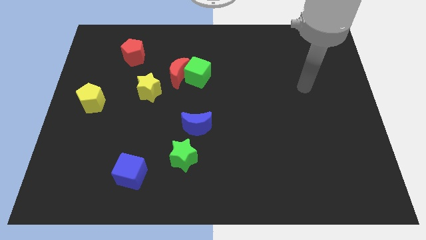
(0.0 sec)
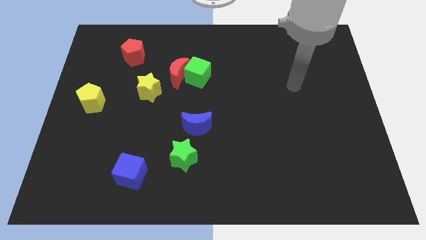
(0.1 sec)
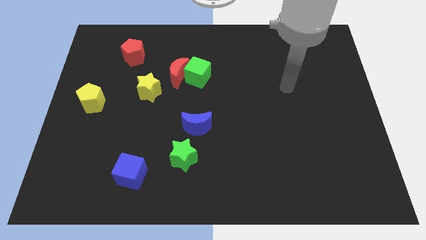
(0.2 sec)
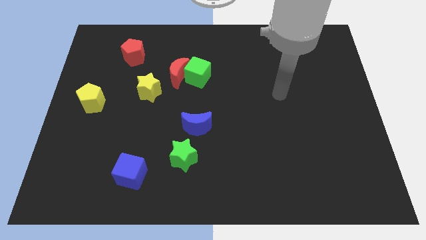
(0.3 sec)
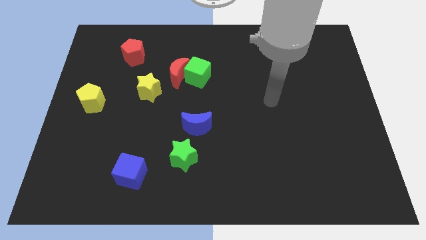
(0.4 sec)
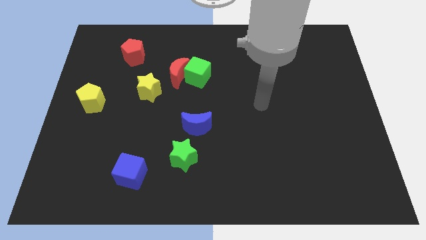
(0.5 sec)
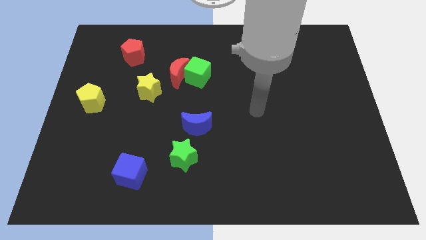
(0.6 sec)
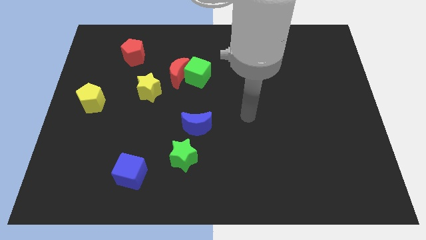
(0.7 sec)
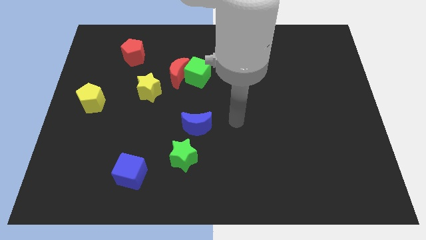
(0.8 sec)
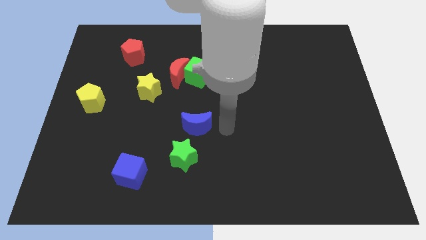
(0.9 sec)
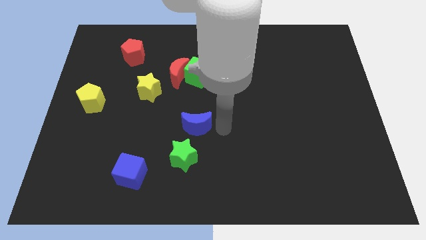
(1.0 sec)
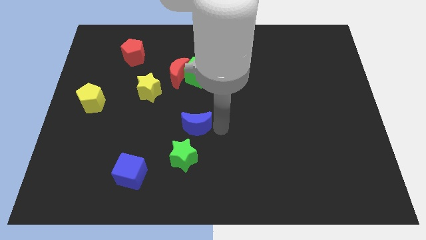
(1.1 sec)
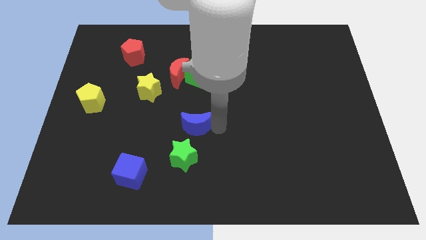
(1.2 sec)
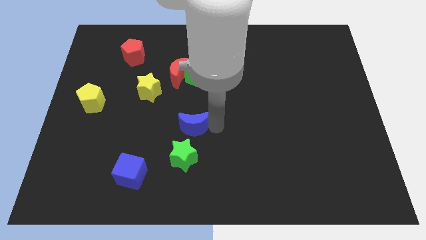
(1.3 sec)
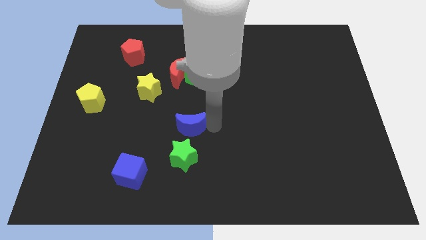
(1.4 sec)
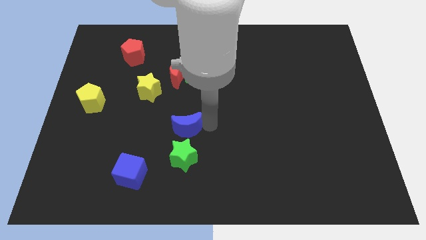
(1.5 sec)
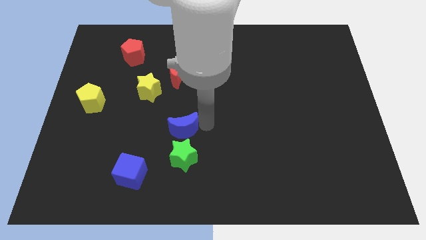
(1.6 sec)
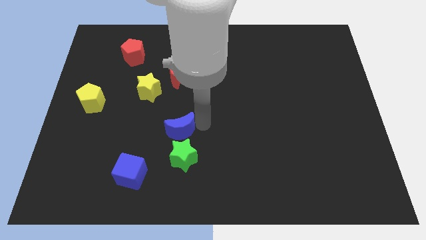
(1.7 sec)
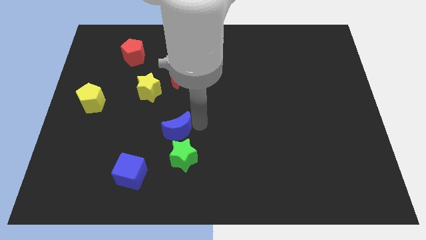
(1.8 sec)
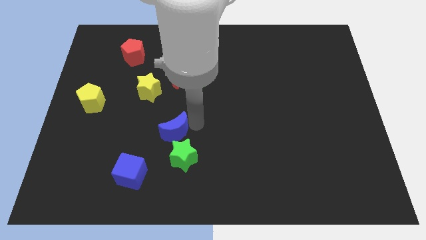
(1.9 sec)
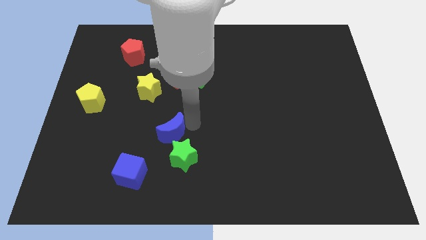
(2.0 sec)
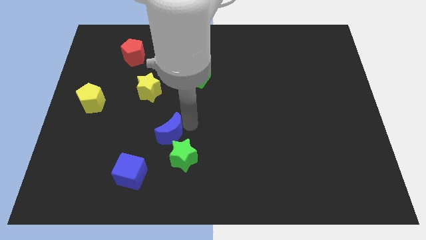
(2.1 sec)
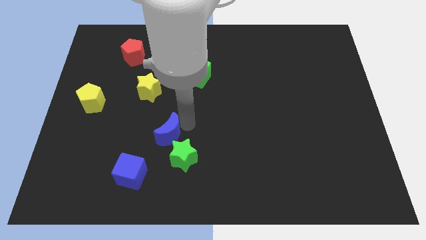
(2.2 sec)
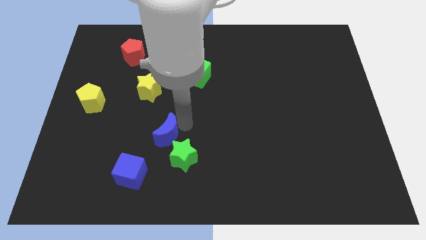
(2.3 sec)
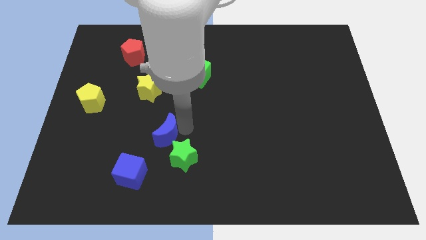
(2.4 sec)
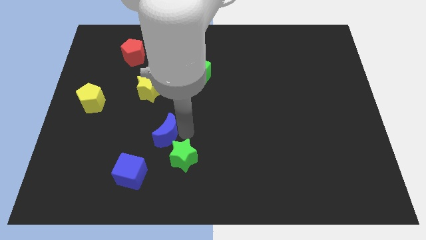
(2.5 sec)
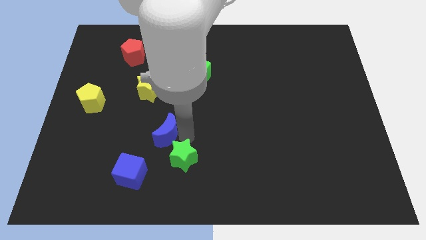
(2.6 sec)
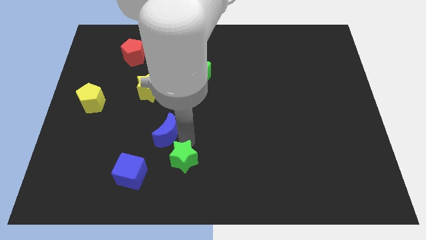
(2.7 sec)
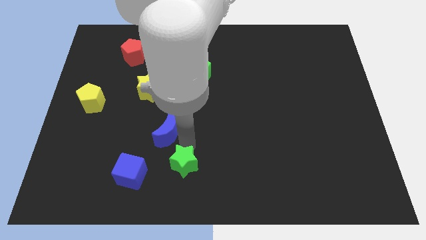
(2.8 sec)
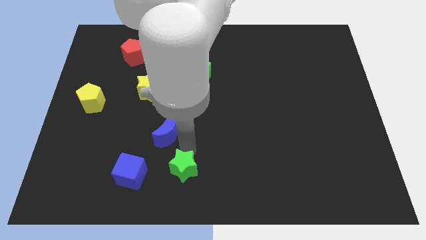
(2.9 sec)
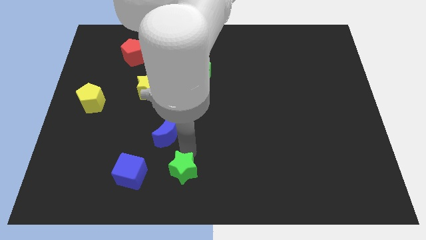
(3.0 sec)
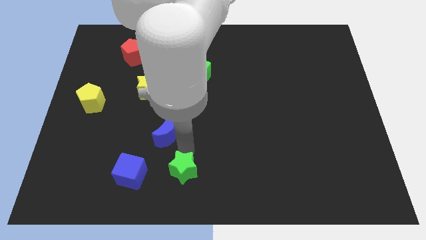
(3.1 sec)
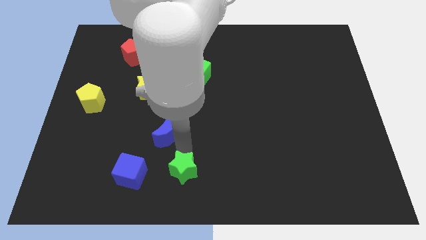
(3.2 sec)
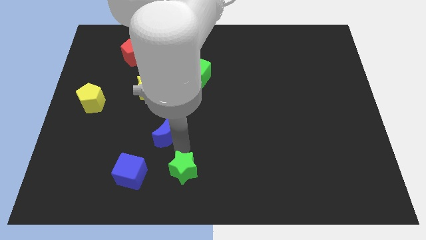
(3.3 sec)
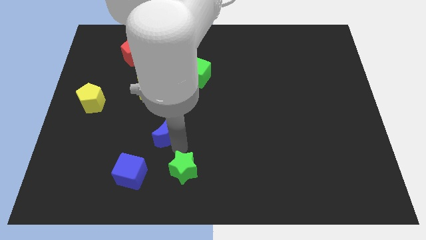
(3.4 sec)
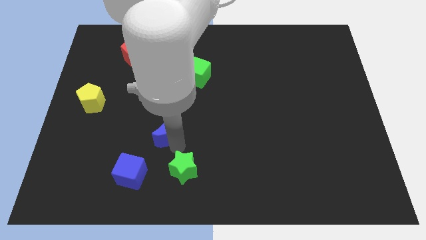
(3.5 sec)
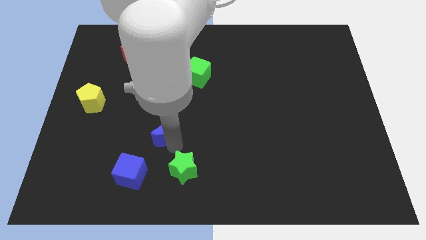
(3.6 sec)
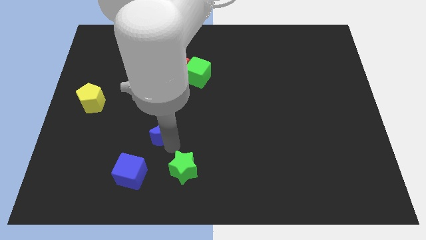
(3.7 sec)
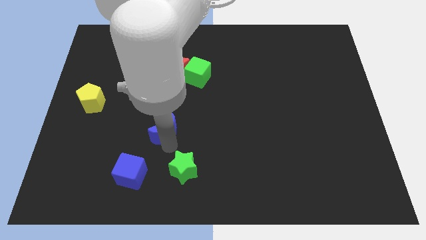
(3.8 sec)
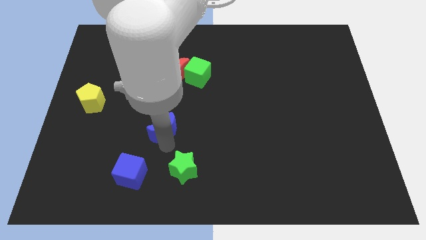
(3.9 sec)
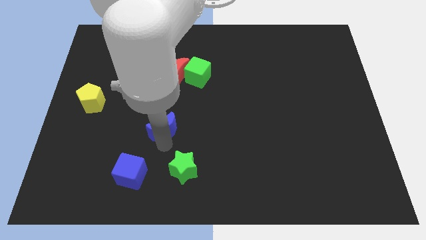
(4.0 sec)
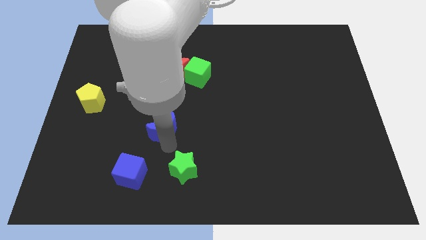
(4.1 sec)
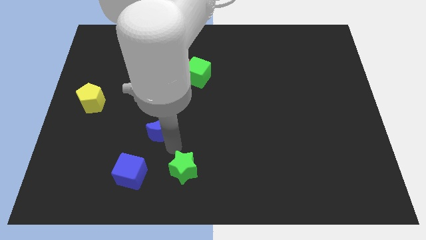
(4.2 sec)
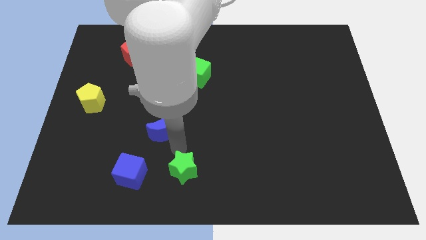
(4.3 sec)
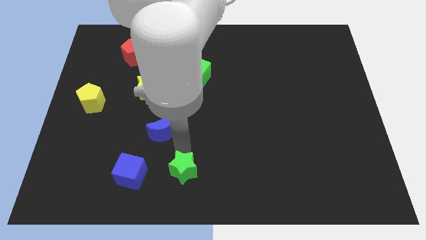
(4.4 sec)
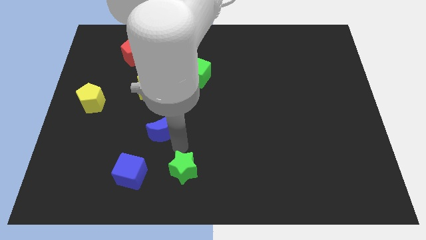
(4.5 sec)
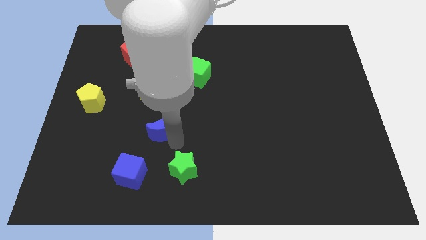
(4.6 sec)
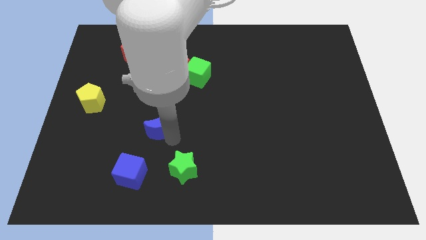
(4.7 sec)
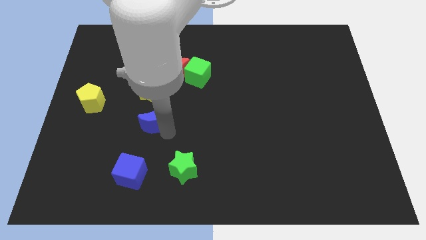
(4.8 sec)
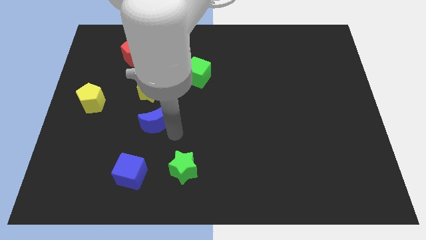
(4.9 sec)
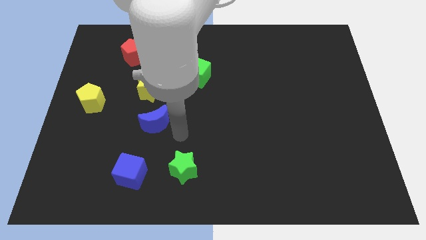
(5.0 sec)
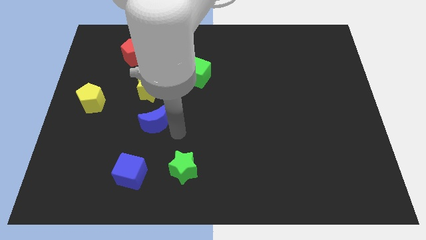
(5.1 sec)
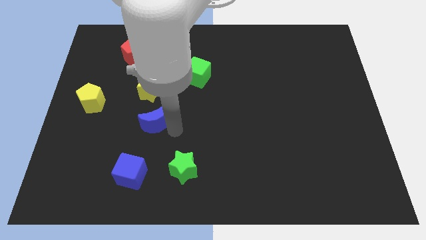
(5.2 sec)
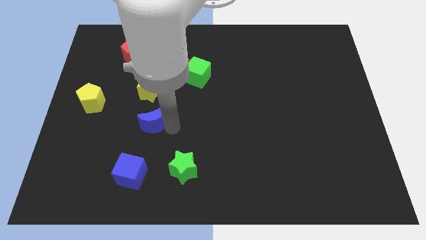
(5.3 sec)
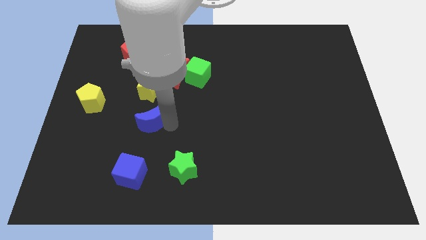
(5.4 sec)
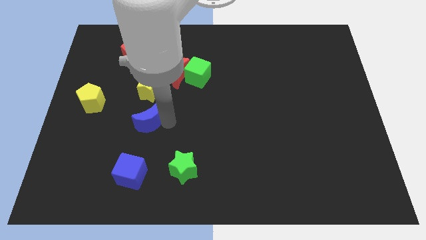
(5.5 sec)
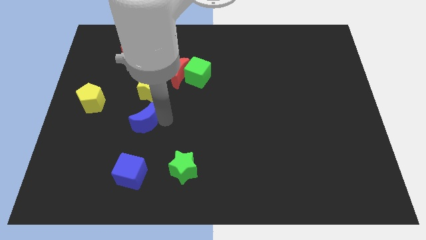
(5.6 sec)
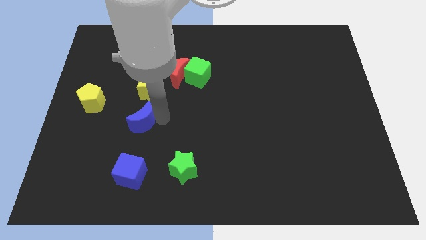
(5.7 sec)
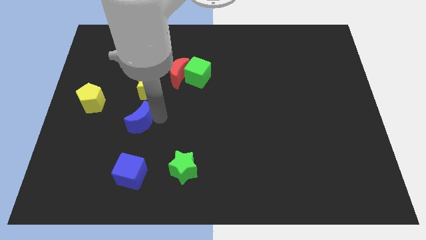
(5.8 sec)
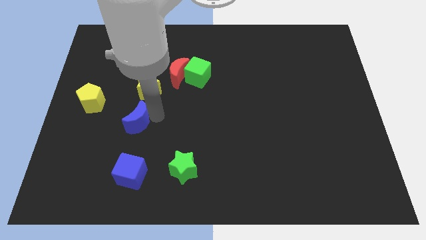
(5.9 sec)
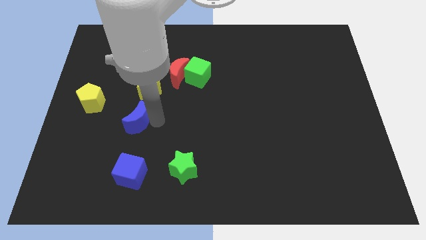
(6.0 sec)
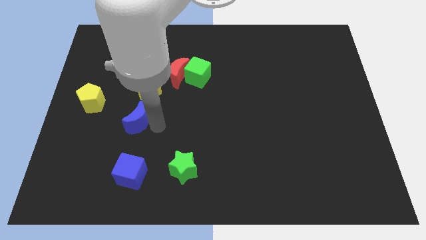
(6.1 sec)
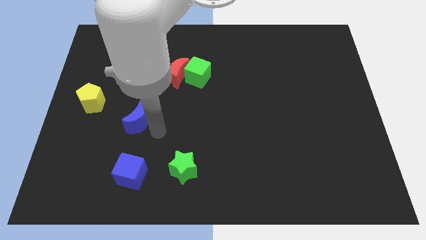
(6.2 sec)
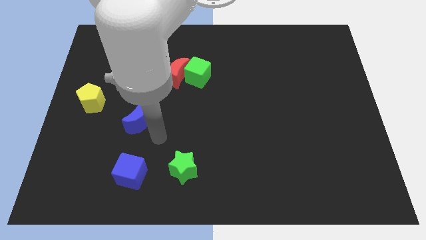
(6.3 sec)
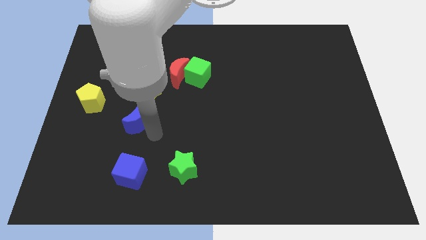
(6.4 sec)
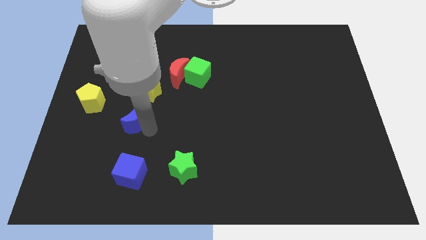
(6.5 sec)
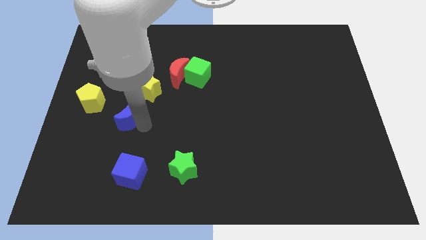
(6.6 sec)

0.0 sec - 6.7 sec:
push the blue moon diagonally down and to the left of the yellow star

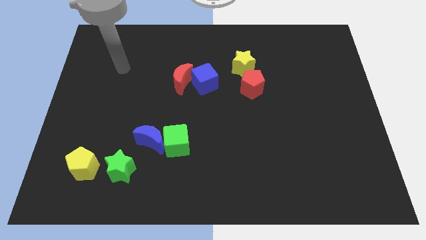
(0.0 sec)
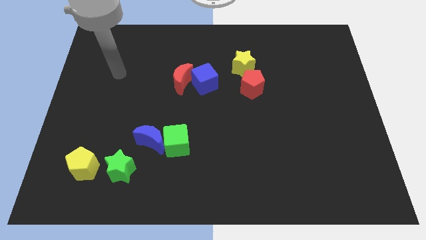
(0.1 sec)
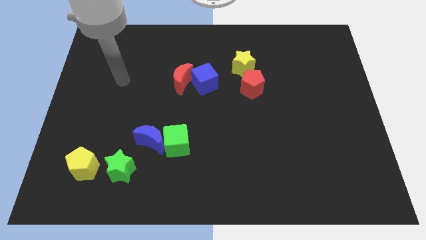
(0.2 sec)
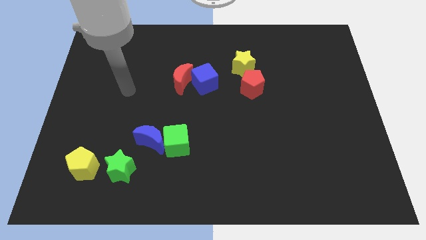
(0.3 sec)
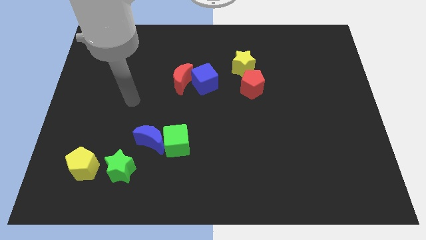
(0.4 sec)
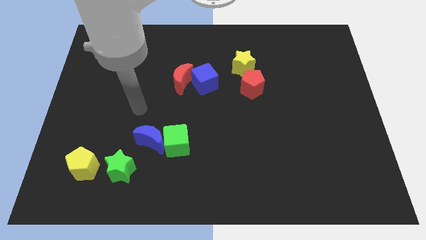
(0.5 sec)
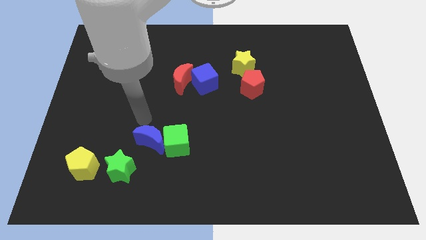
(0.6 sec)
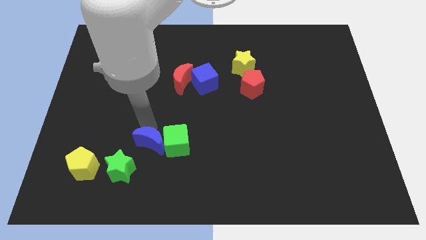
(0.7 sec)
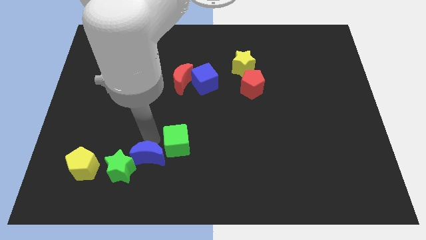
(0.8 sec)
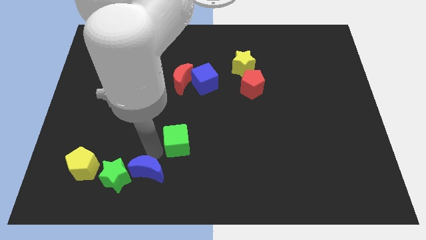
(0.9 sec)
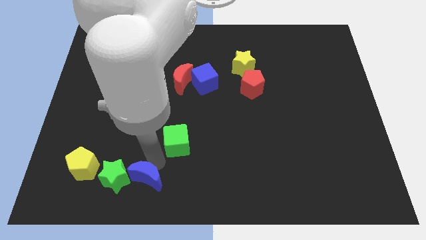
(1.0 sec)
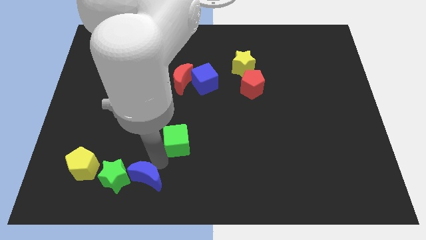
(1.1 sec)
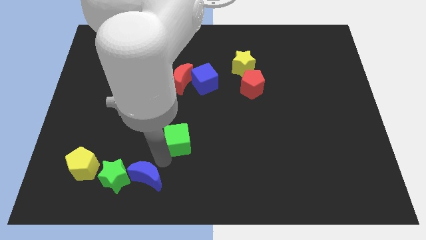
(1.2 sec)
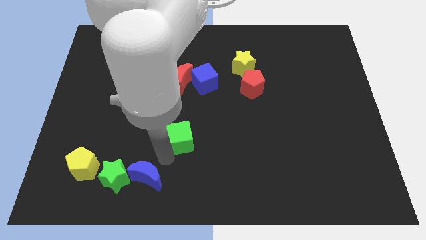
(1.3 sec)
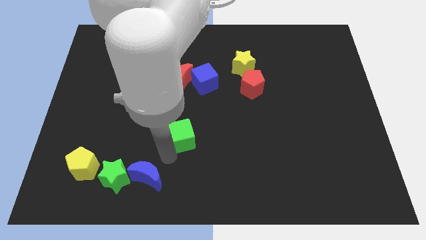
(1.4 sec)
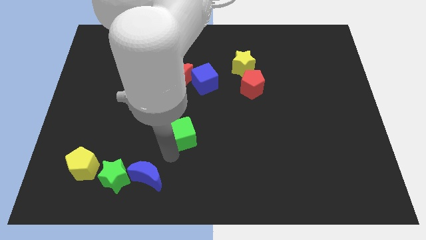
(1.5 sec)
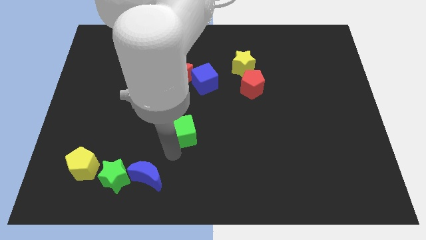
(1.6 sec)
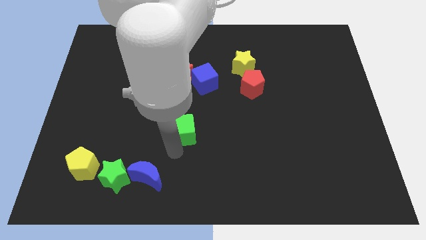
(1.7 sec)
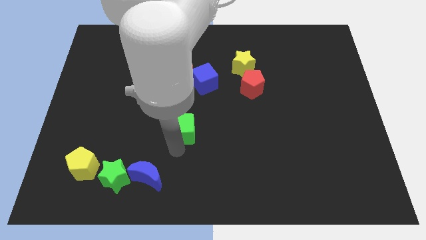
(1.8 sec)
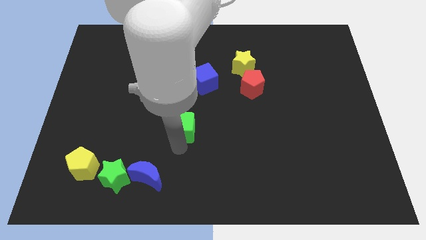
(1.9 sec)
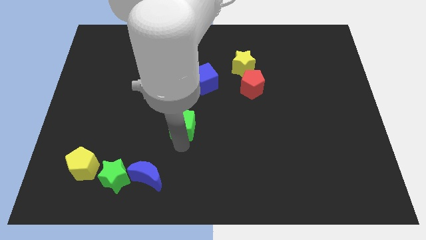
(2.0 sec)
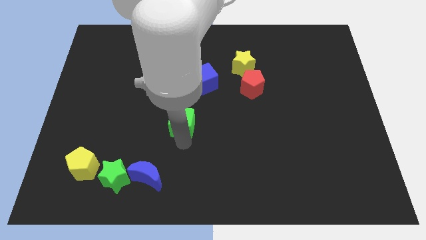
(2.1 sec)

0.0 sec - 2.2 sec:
put the green cube to the bottom side of the blue cube
